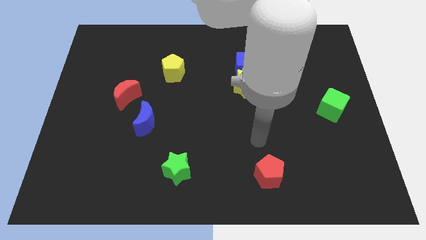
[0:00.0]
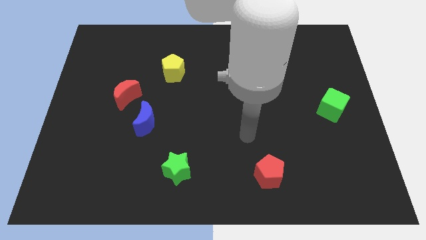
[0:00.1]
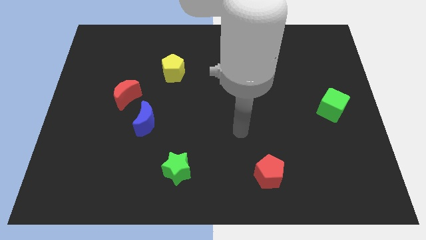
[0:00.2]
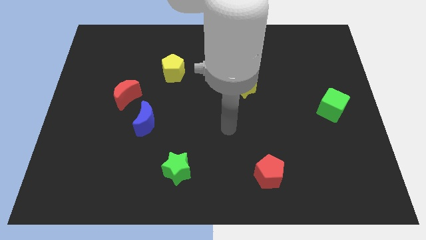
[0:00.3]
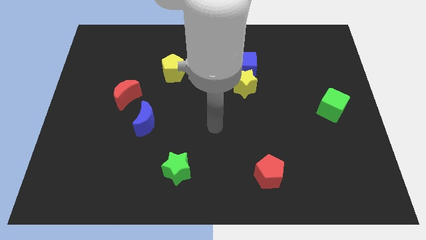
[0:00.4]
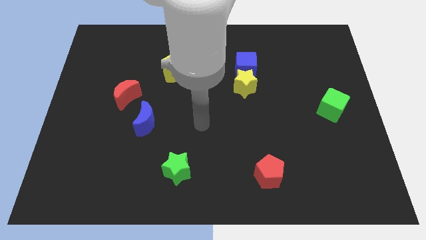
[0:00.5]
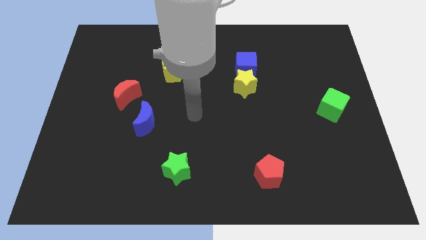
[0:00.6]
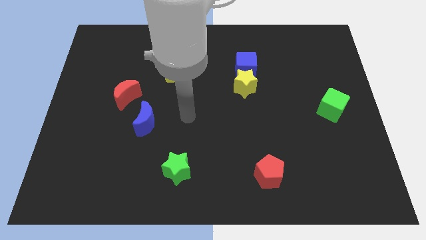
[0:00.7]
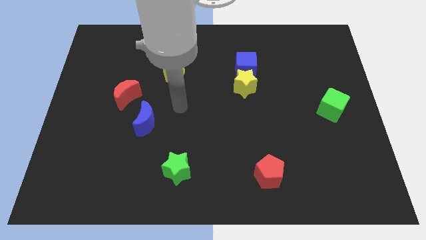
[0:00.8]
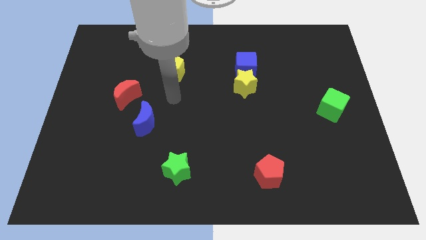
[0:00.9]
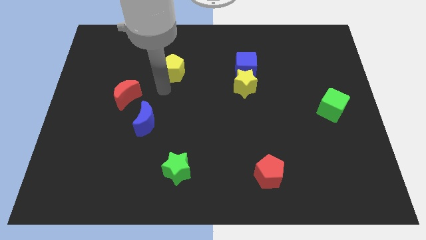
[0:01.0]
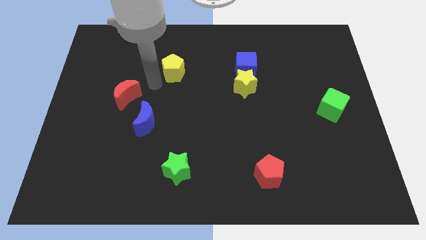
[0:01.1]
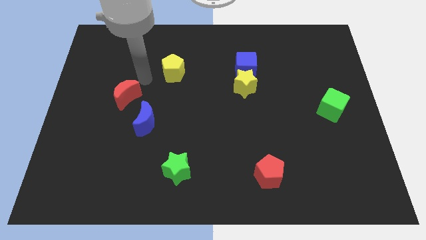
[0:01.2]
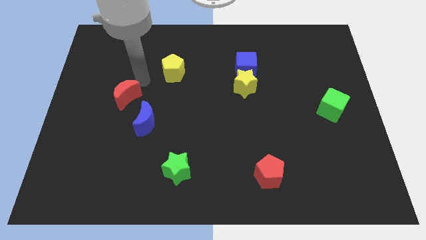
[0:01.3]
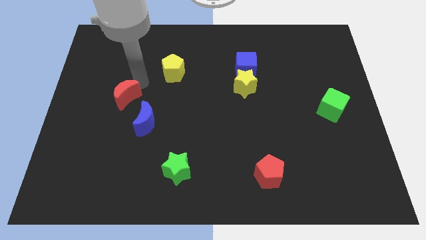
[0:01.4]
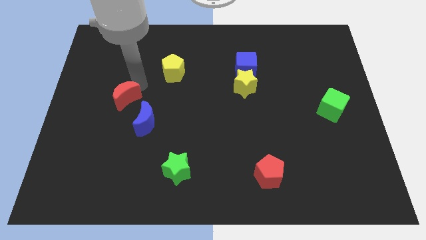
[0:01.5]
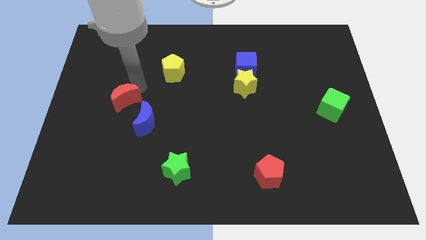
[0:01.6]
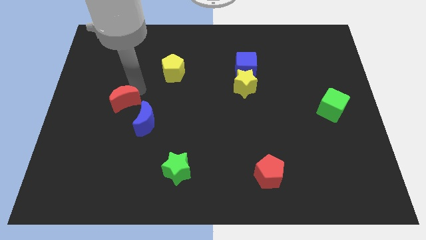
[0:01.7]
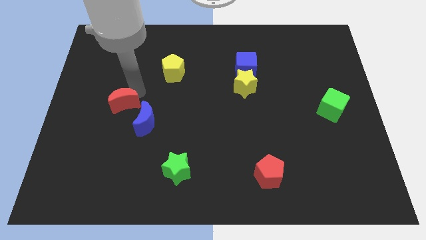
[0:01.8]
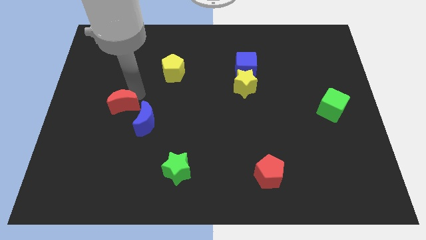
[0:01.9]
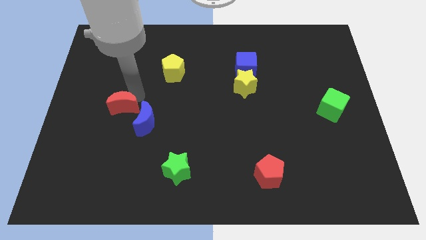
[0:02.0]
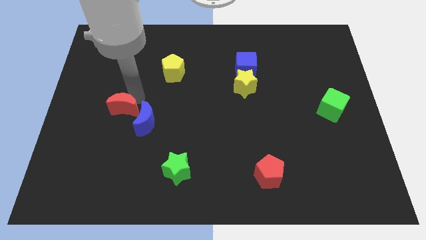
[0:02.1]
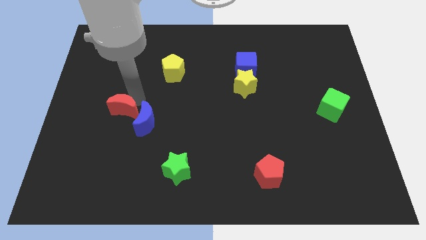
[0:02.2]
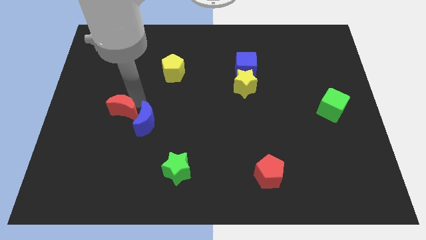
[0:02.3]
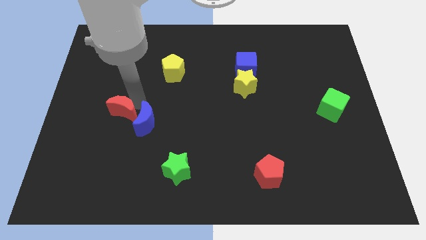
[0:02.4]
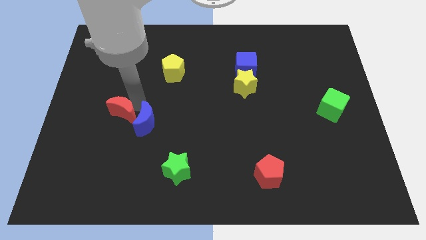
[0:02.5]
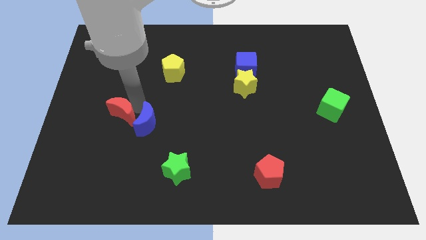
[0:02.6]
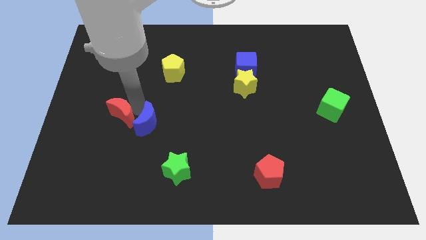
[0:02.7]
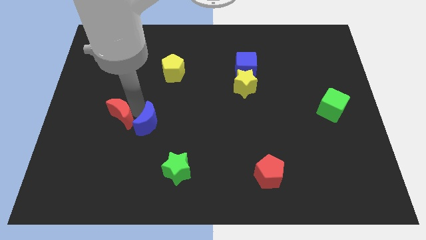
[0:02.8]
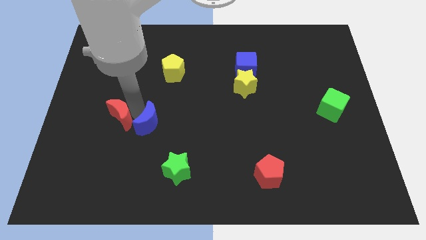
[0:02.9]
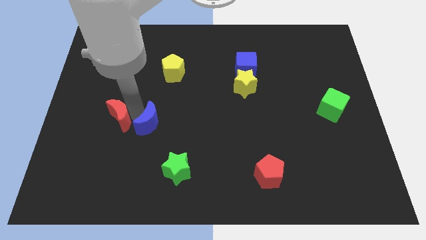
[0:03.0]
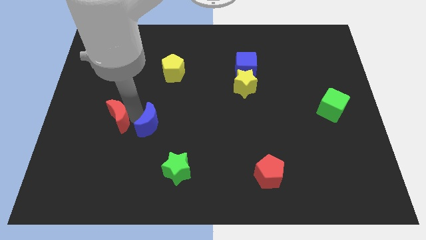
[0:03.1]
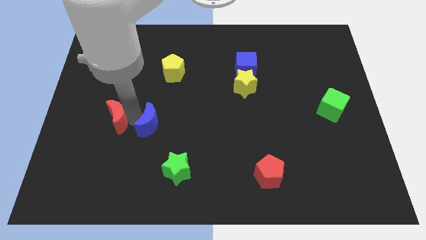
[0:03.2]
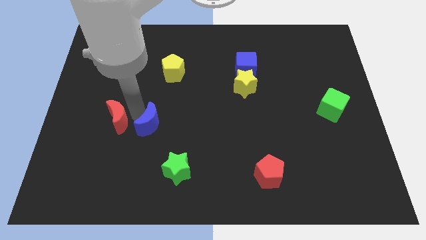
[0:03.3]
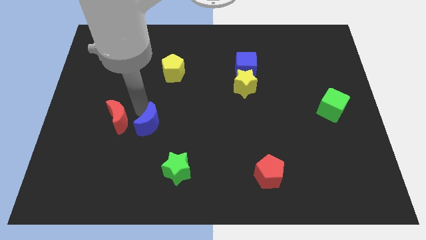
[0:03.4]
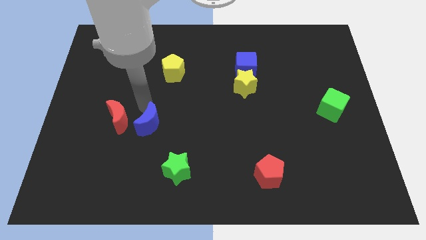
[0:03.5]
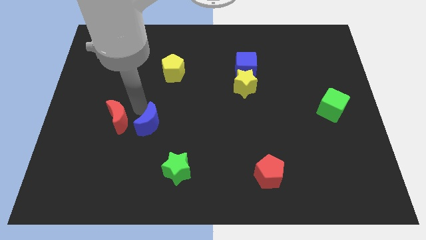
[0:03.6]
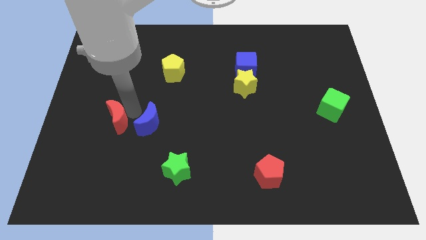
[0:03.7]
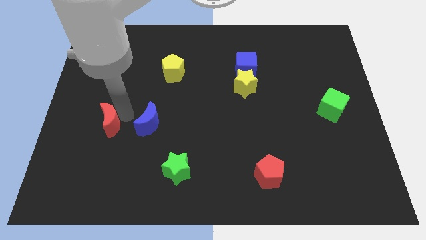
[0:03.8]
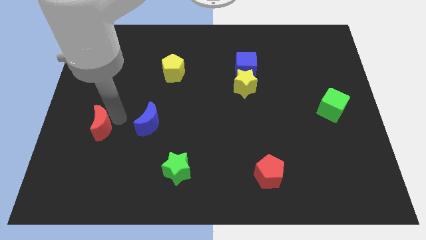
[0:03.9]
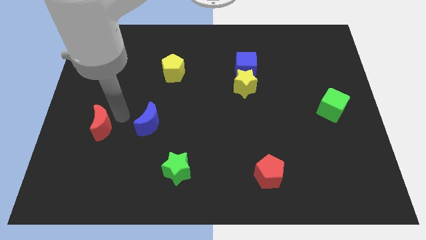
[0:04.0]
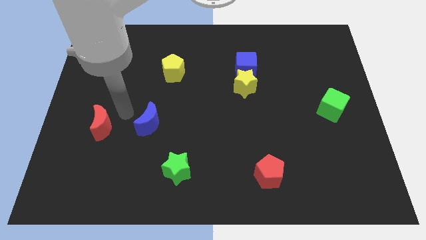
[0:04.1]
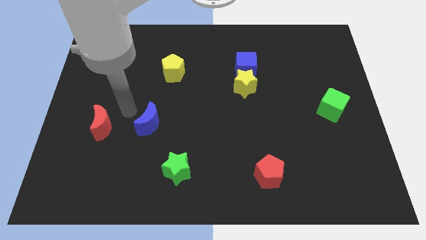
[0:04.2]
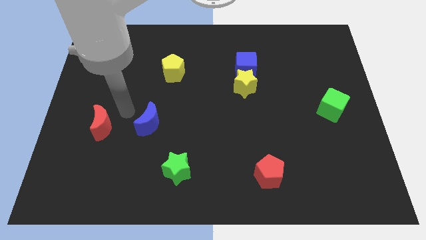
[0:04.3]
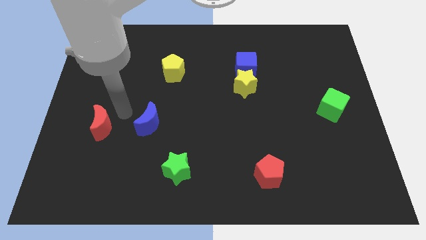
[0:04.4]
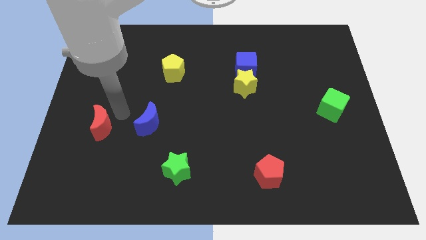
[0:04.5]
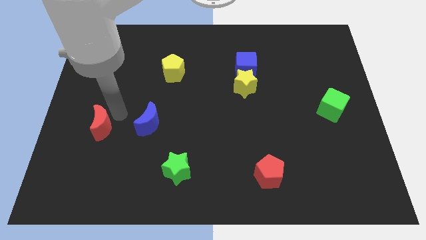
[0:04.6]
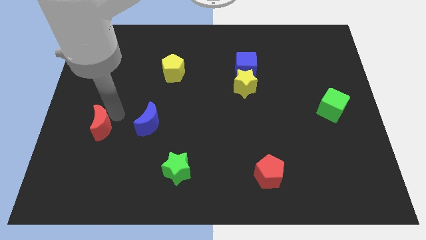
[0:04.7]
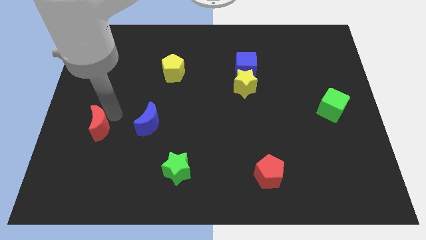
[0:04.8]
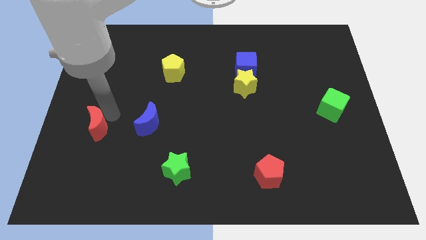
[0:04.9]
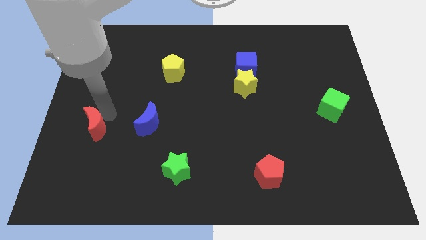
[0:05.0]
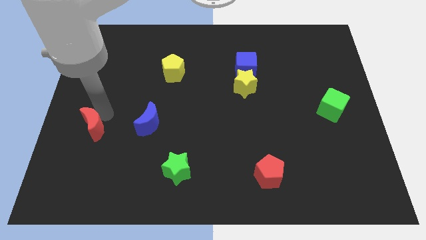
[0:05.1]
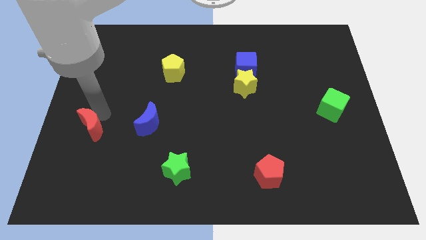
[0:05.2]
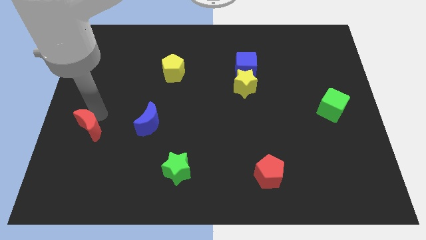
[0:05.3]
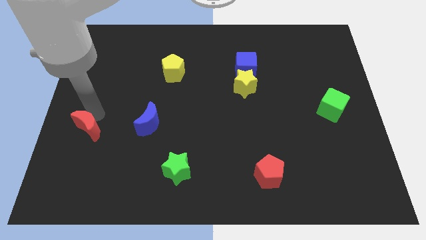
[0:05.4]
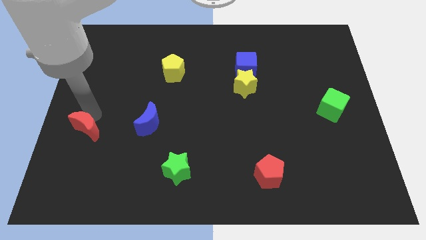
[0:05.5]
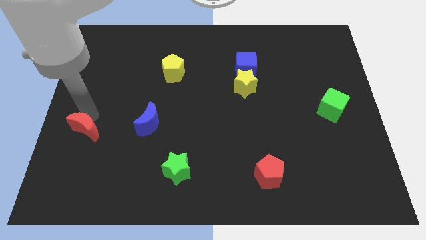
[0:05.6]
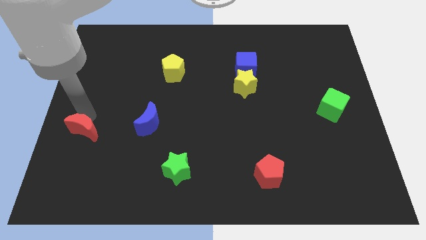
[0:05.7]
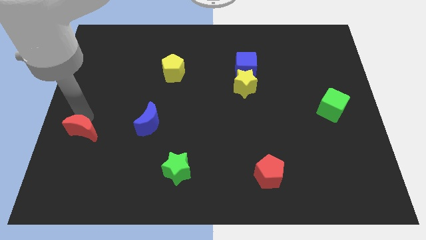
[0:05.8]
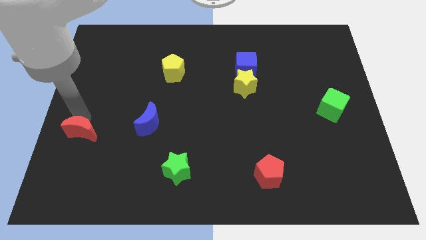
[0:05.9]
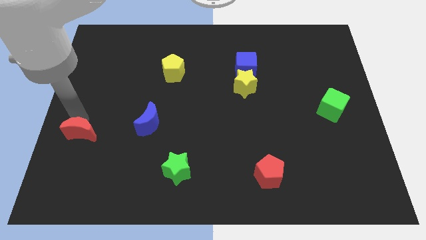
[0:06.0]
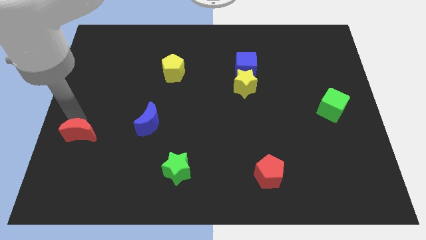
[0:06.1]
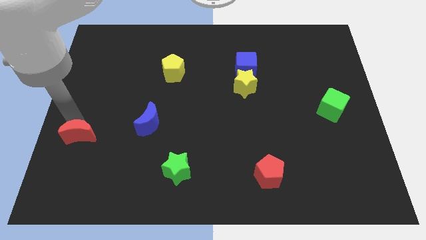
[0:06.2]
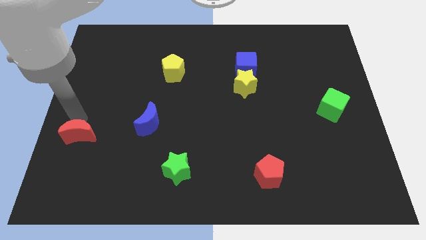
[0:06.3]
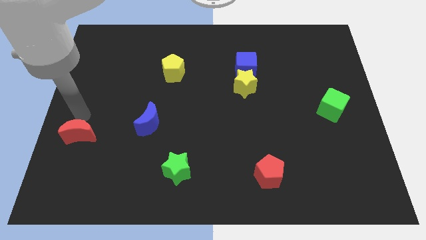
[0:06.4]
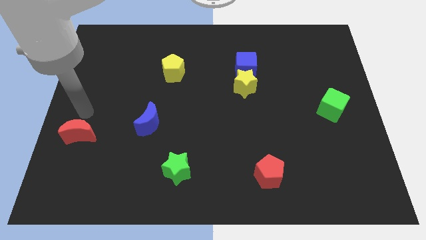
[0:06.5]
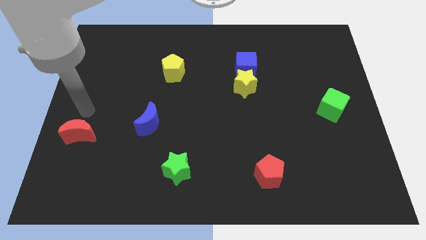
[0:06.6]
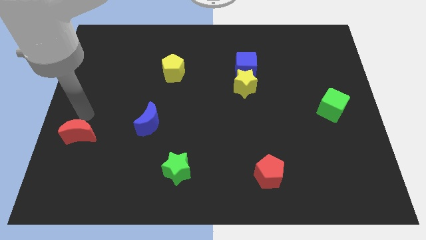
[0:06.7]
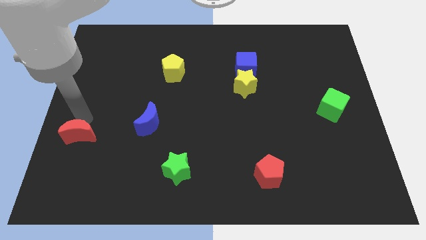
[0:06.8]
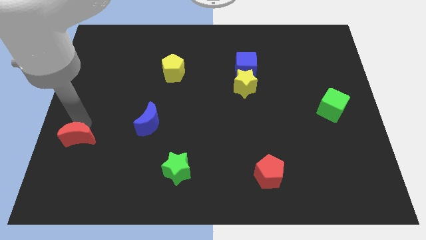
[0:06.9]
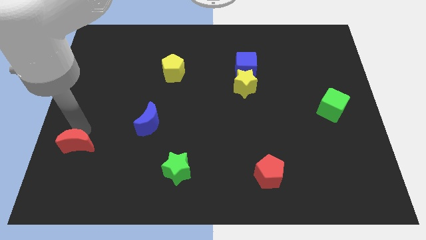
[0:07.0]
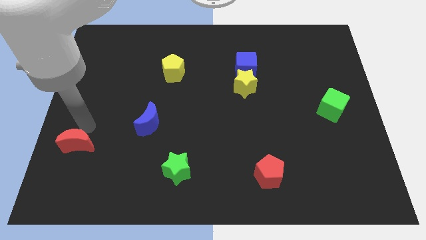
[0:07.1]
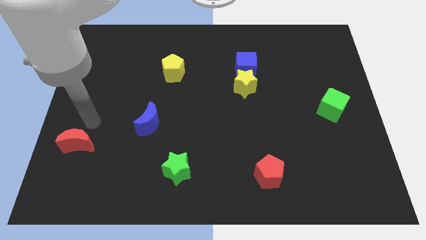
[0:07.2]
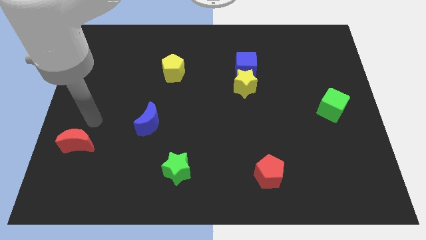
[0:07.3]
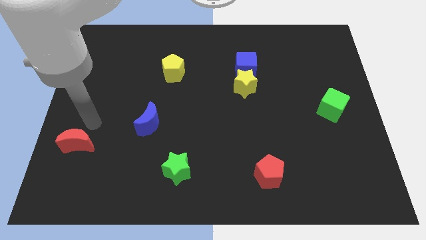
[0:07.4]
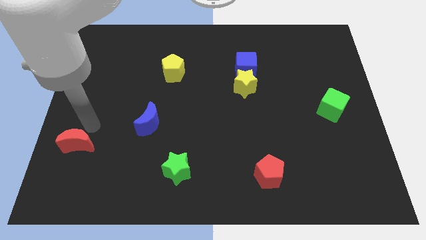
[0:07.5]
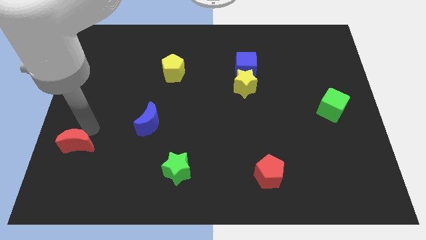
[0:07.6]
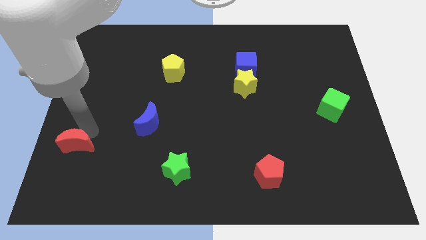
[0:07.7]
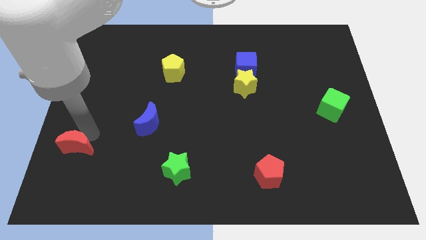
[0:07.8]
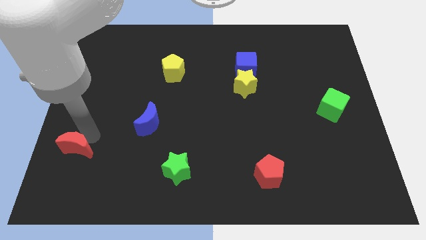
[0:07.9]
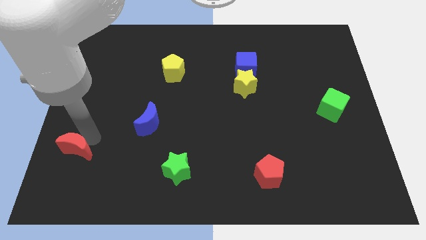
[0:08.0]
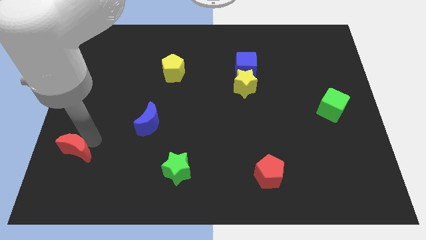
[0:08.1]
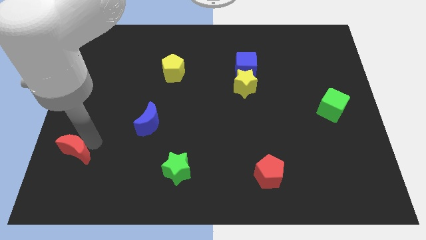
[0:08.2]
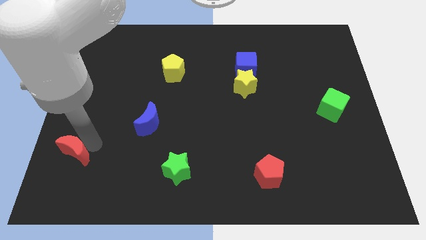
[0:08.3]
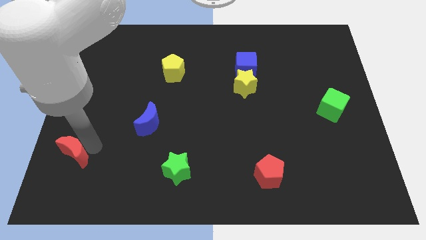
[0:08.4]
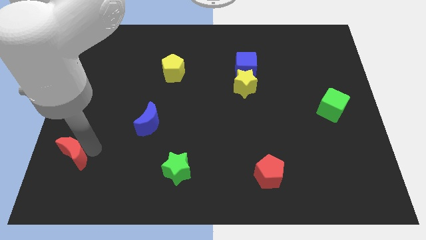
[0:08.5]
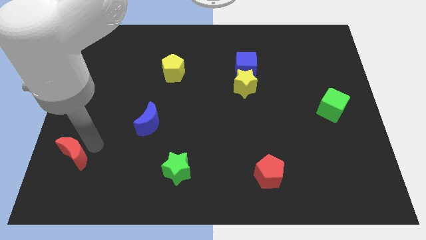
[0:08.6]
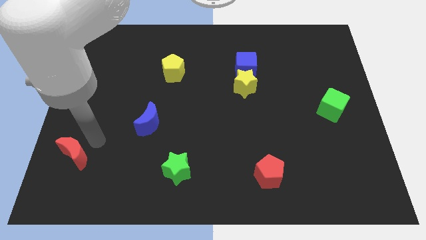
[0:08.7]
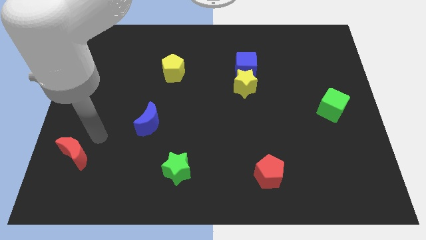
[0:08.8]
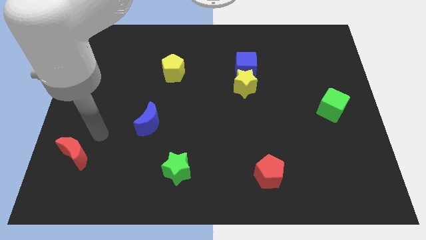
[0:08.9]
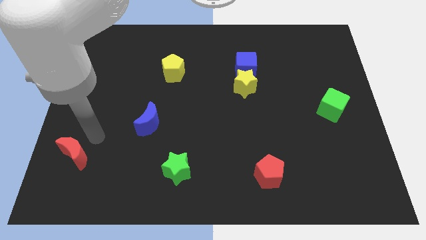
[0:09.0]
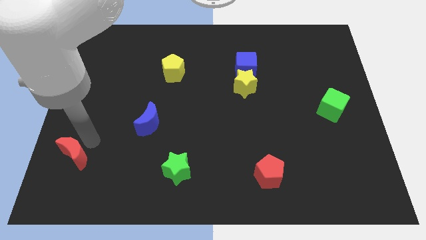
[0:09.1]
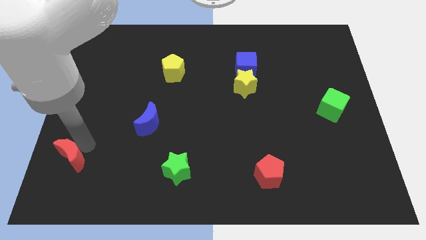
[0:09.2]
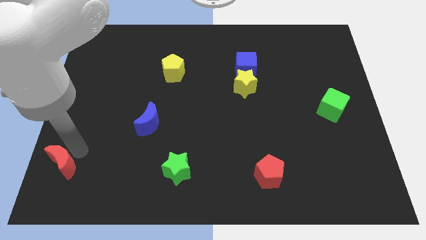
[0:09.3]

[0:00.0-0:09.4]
put the red moon to the bottom left of the board
